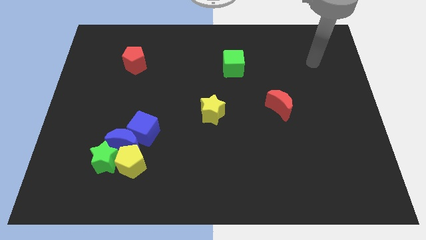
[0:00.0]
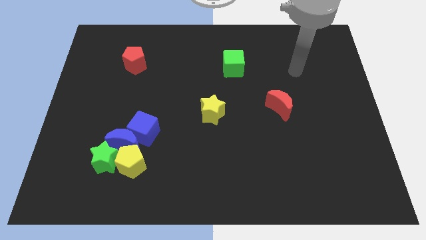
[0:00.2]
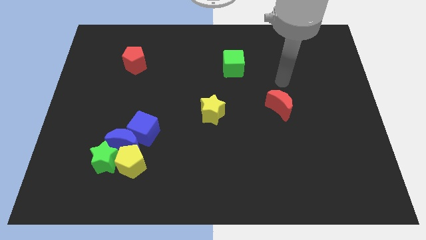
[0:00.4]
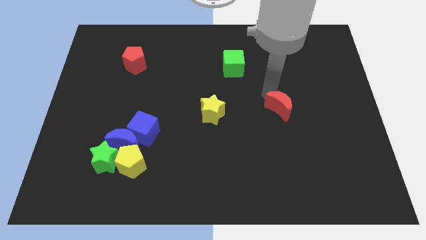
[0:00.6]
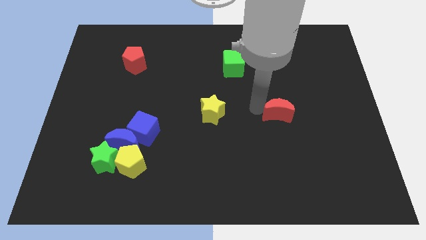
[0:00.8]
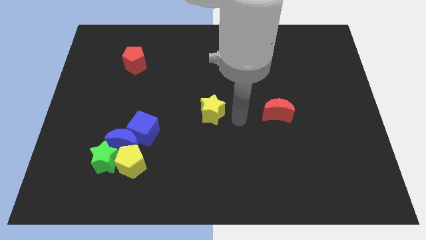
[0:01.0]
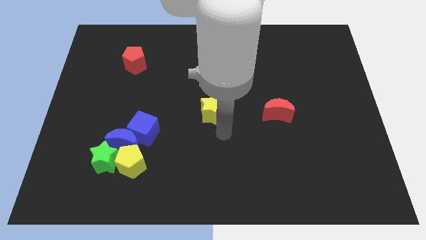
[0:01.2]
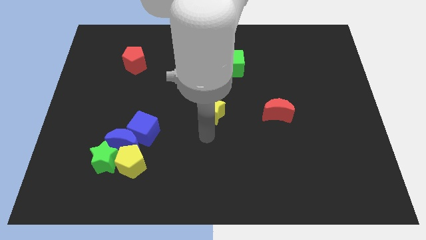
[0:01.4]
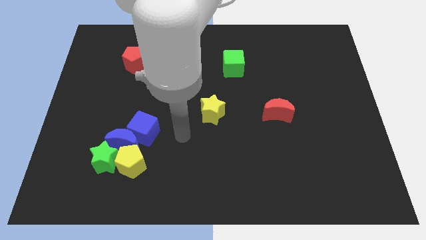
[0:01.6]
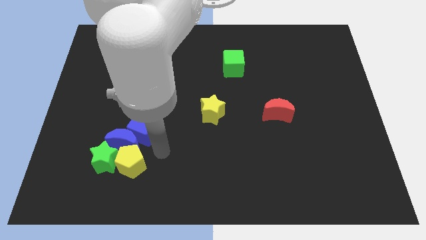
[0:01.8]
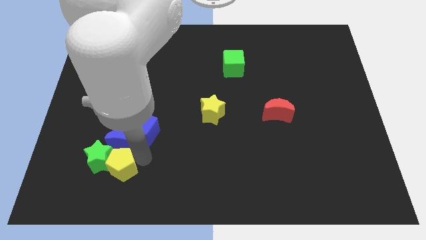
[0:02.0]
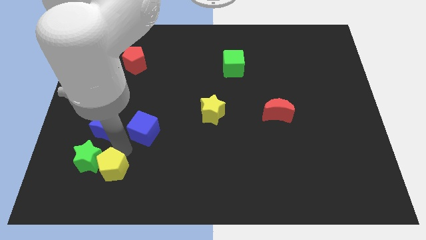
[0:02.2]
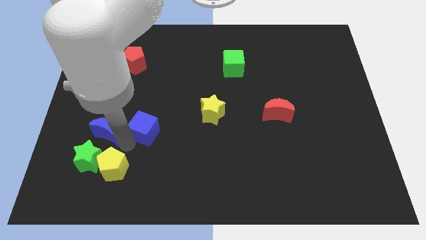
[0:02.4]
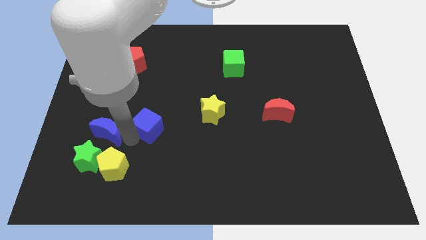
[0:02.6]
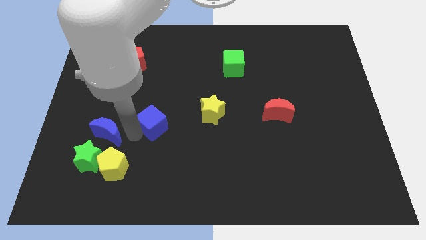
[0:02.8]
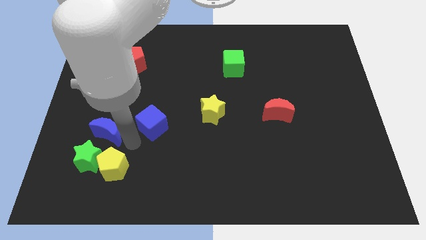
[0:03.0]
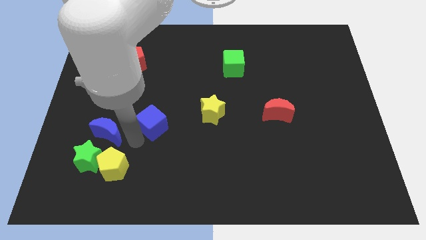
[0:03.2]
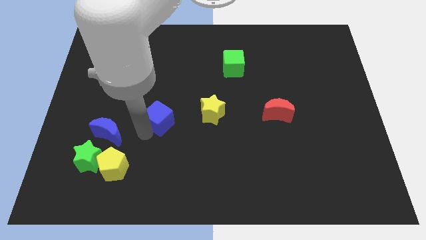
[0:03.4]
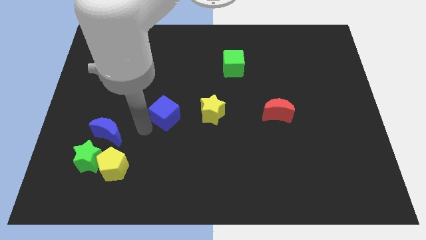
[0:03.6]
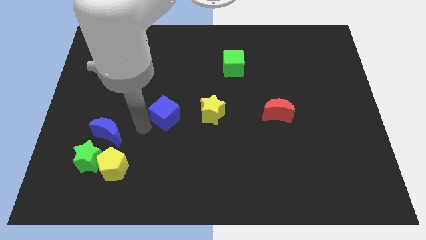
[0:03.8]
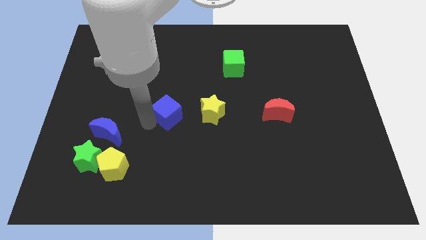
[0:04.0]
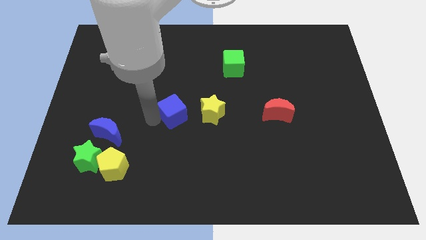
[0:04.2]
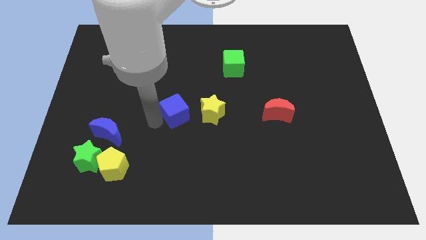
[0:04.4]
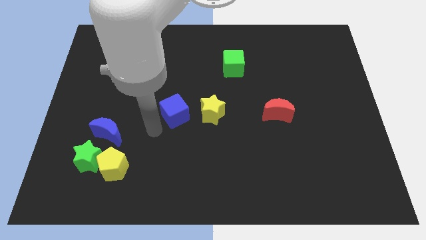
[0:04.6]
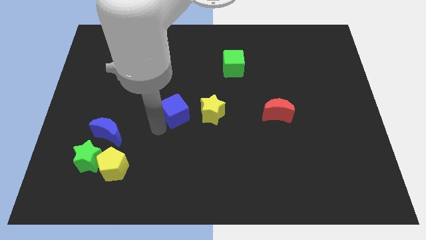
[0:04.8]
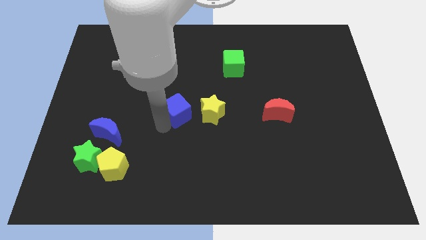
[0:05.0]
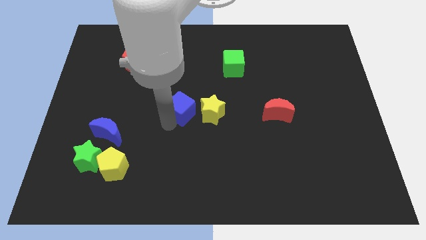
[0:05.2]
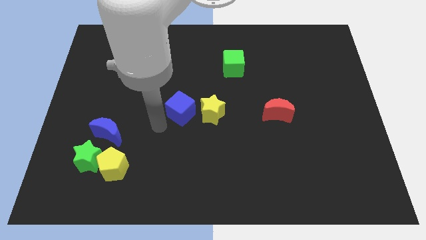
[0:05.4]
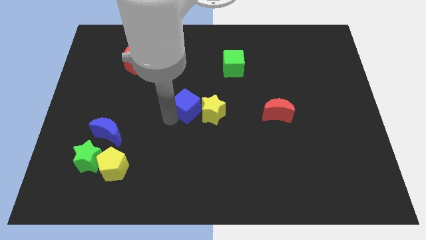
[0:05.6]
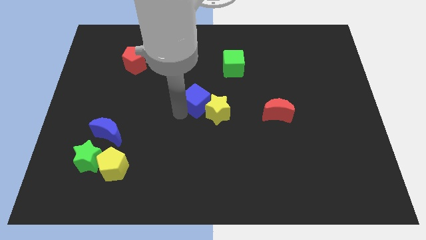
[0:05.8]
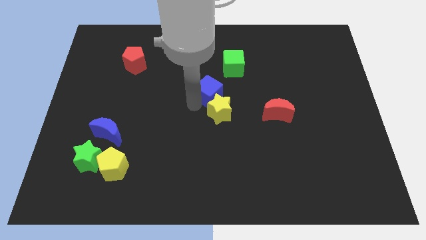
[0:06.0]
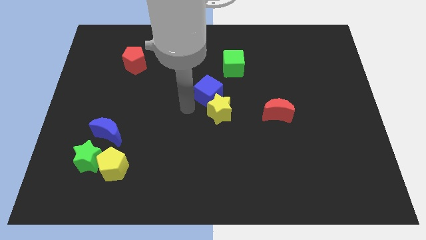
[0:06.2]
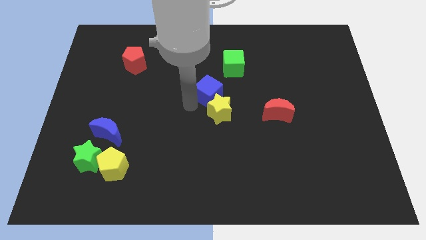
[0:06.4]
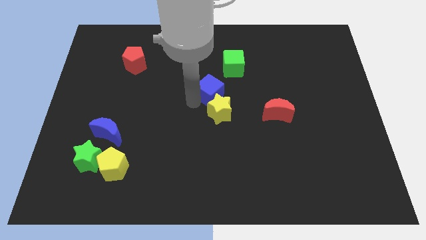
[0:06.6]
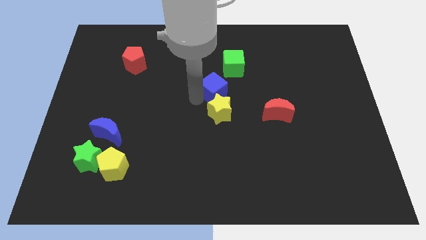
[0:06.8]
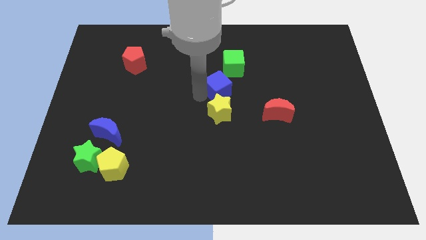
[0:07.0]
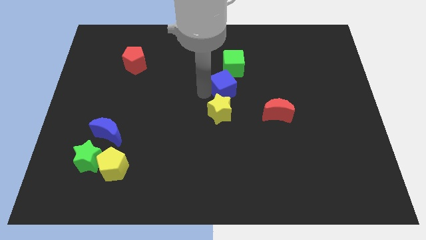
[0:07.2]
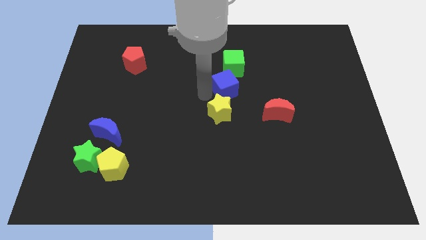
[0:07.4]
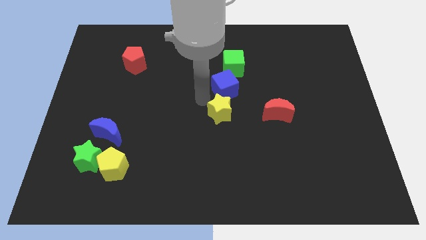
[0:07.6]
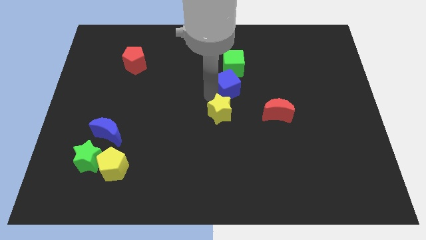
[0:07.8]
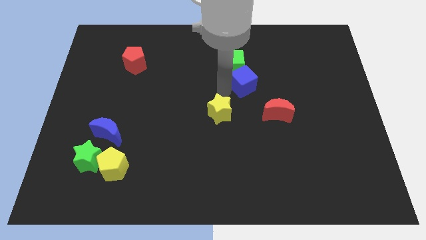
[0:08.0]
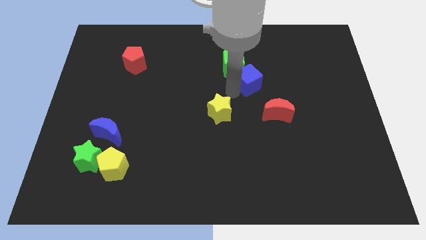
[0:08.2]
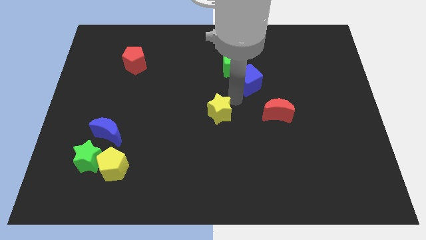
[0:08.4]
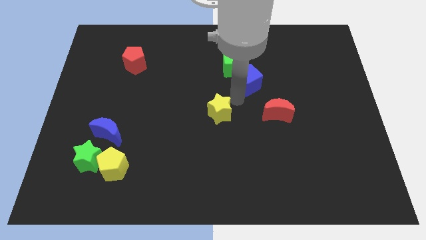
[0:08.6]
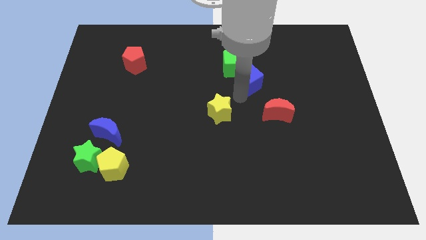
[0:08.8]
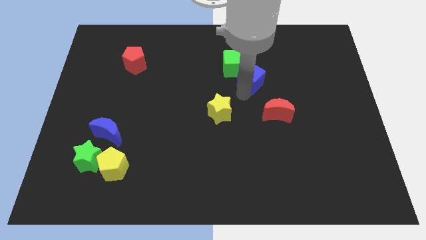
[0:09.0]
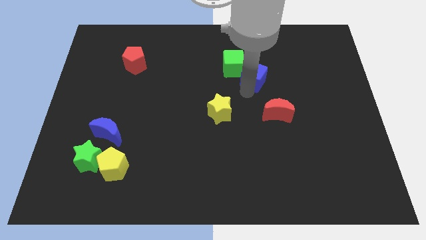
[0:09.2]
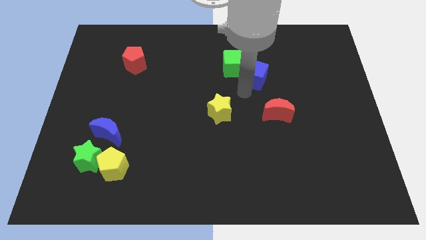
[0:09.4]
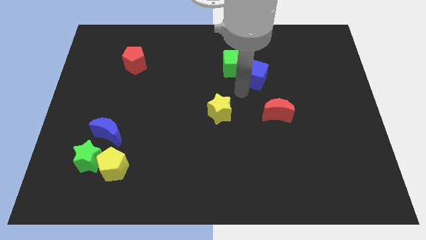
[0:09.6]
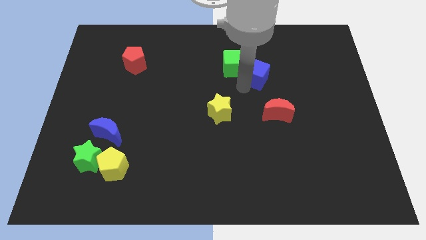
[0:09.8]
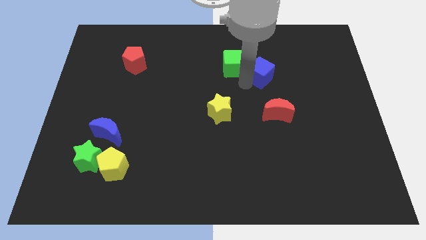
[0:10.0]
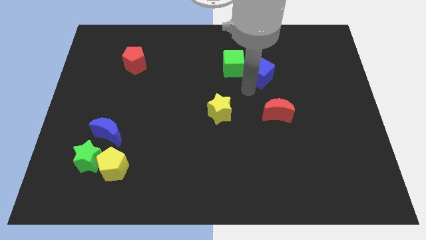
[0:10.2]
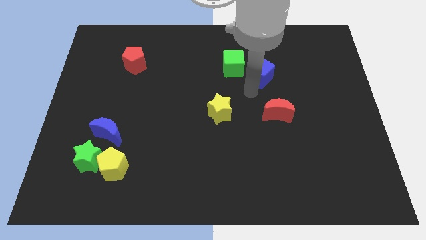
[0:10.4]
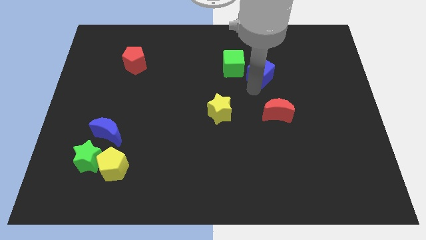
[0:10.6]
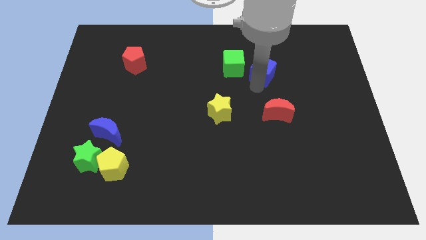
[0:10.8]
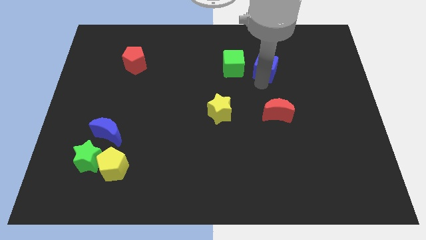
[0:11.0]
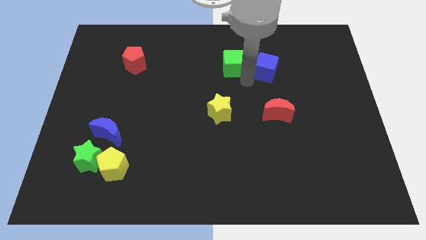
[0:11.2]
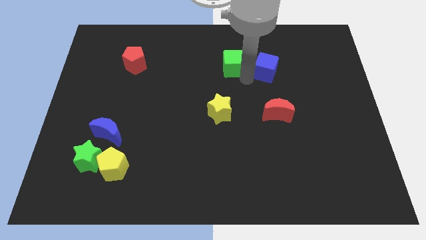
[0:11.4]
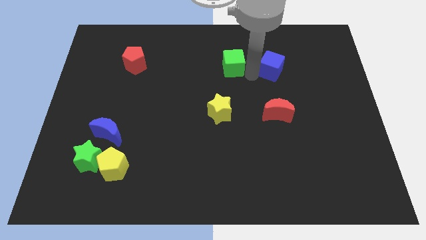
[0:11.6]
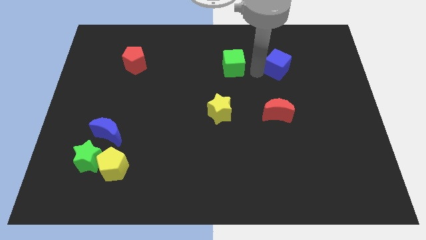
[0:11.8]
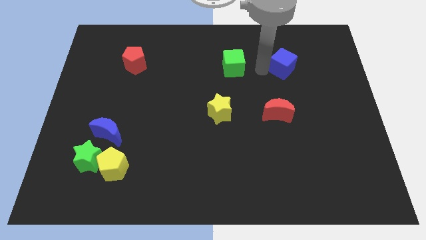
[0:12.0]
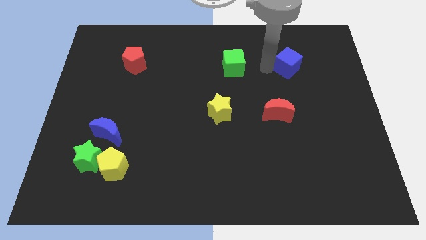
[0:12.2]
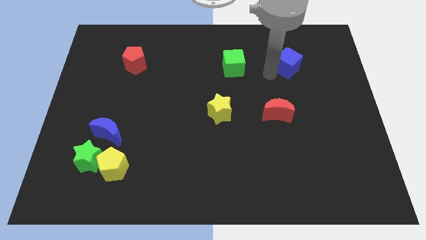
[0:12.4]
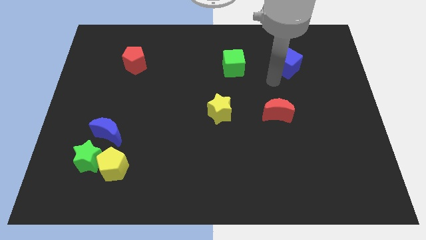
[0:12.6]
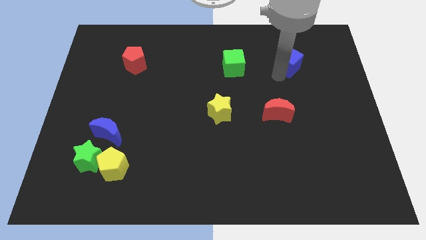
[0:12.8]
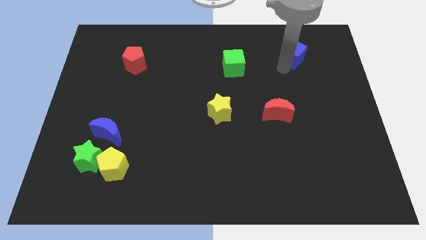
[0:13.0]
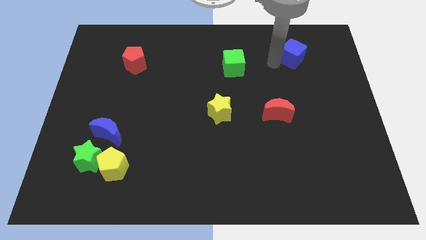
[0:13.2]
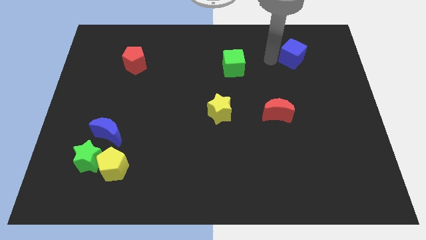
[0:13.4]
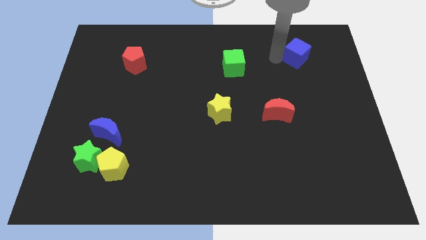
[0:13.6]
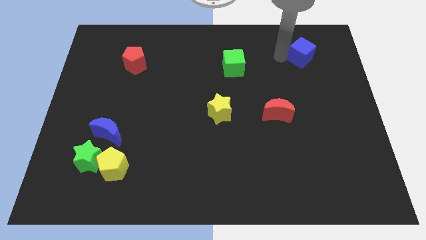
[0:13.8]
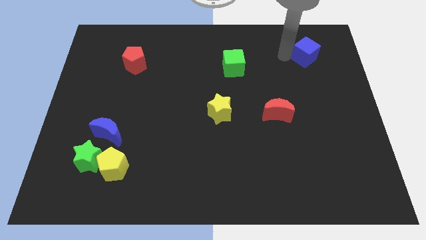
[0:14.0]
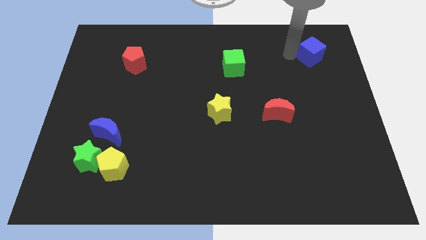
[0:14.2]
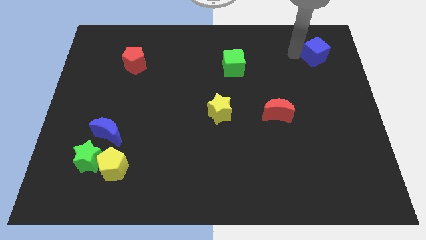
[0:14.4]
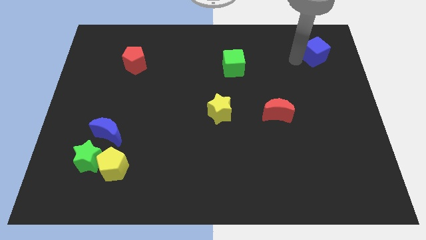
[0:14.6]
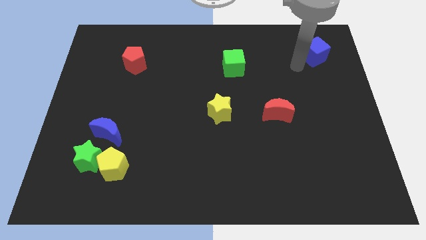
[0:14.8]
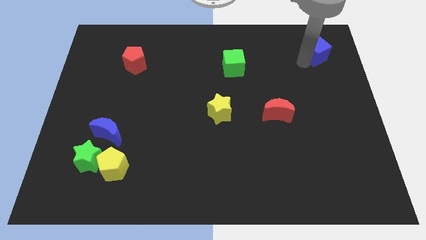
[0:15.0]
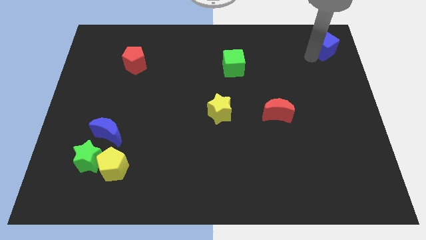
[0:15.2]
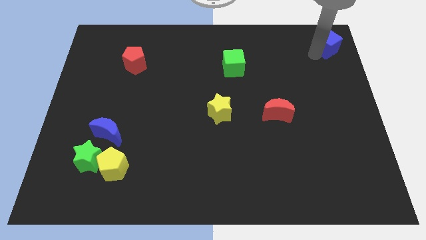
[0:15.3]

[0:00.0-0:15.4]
slide the blue cube to the top right

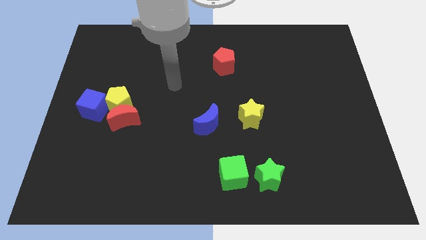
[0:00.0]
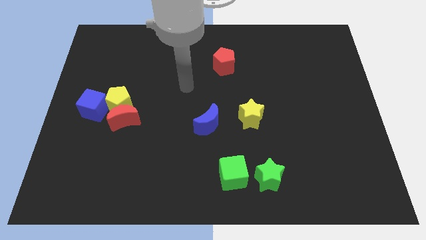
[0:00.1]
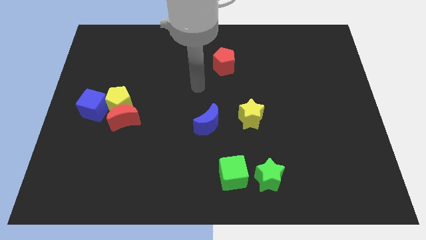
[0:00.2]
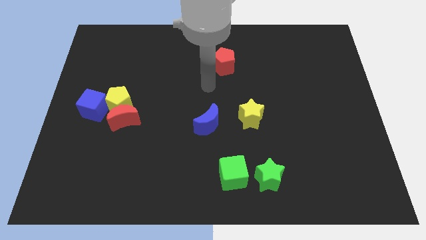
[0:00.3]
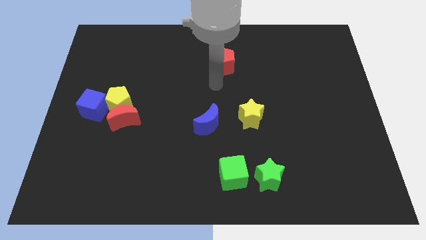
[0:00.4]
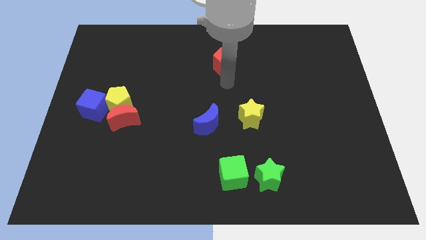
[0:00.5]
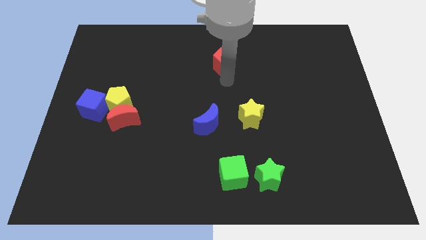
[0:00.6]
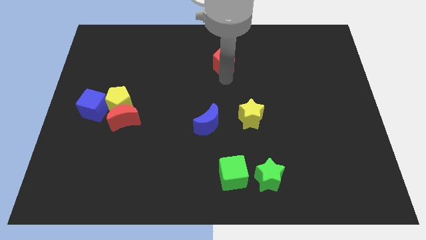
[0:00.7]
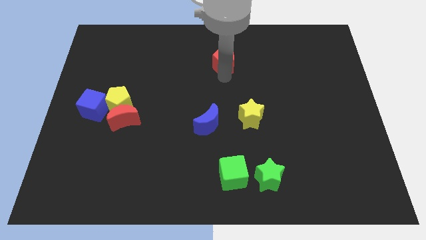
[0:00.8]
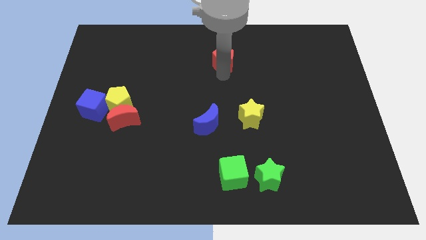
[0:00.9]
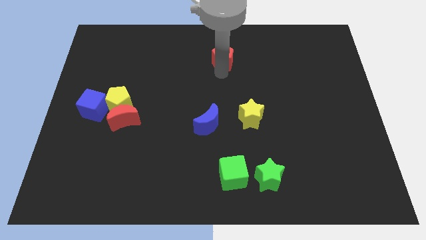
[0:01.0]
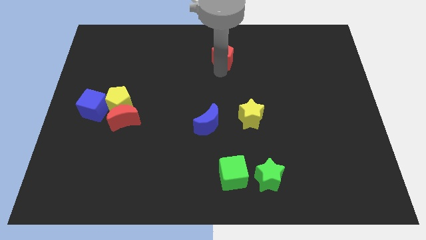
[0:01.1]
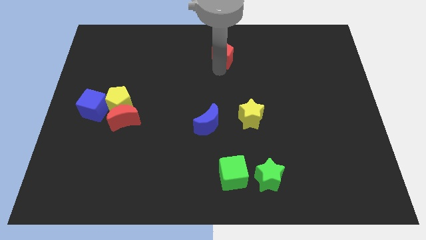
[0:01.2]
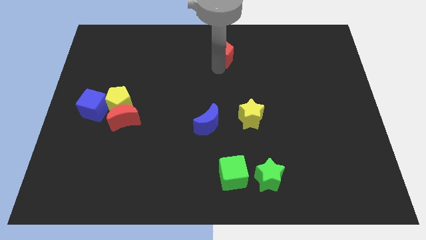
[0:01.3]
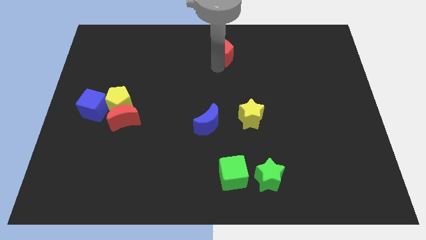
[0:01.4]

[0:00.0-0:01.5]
put the red pentagon to the top
